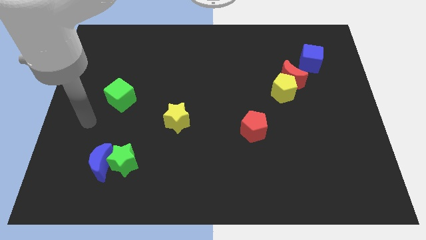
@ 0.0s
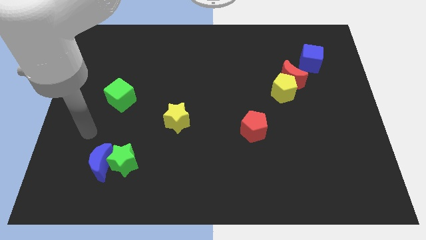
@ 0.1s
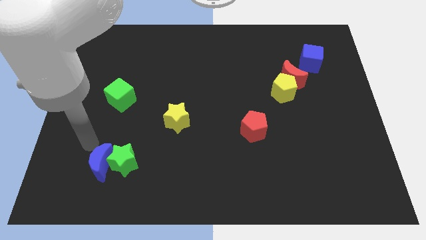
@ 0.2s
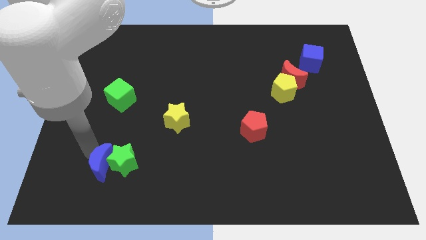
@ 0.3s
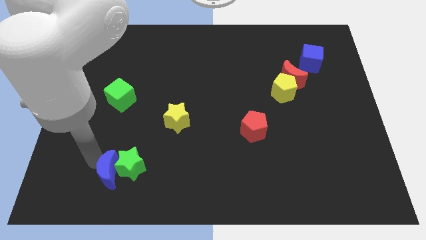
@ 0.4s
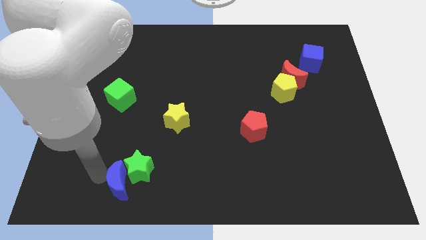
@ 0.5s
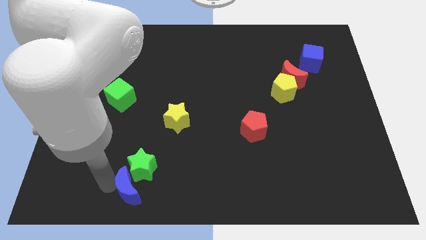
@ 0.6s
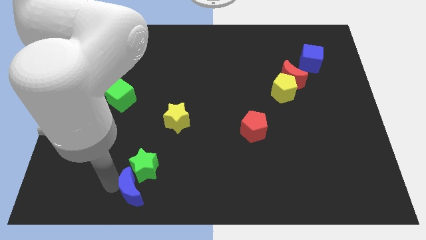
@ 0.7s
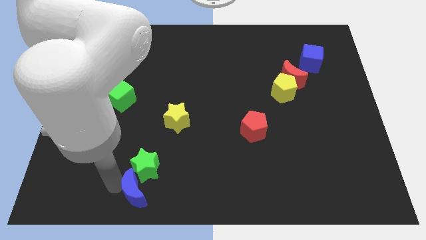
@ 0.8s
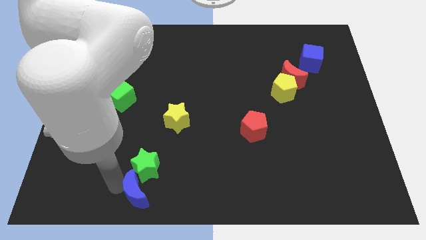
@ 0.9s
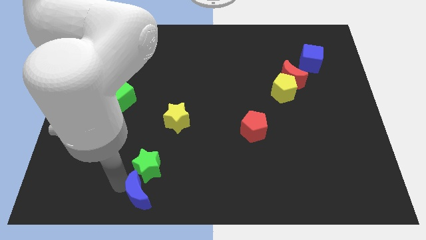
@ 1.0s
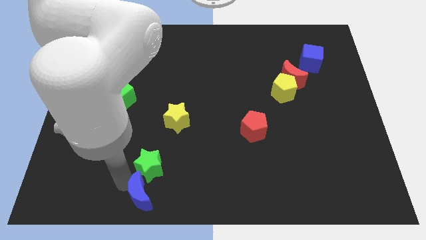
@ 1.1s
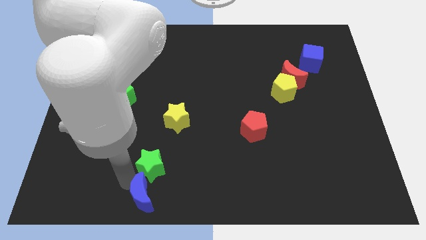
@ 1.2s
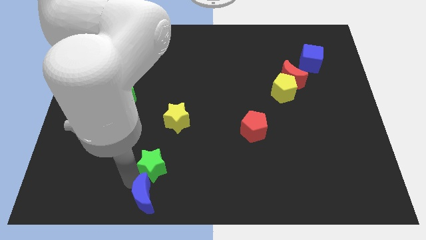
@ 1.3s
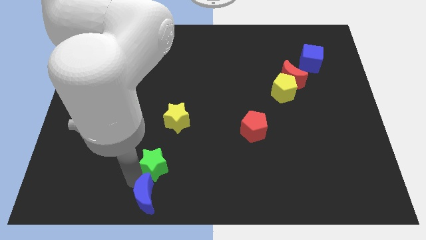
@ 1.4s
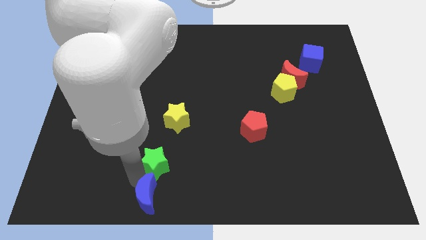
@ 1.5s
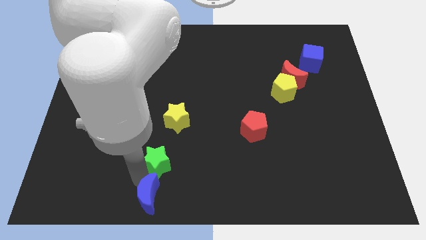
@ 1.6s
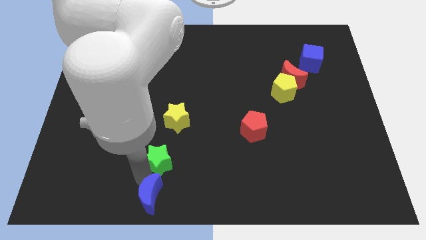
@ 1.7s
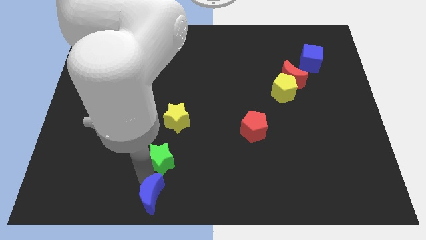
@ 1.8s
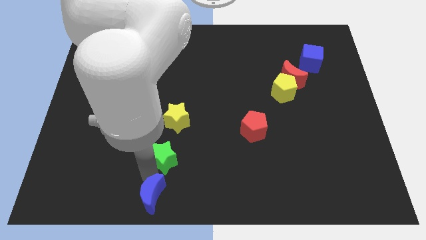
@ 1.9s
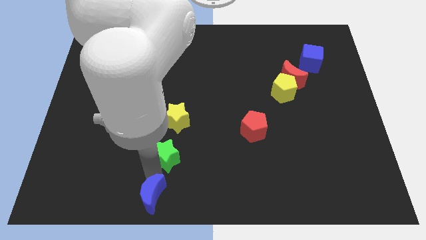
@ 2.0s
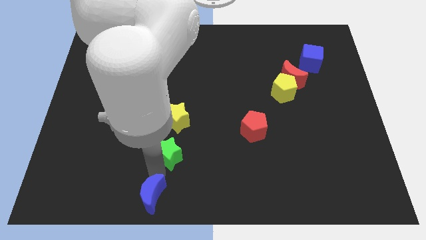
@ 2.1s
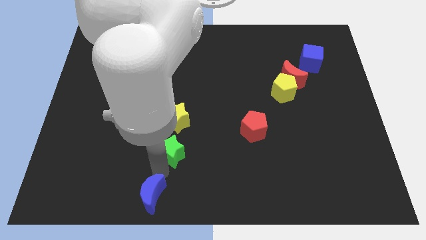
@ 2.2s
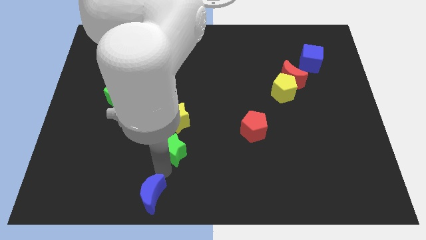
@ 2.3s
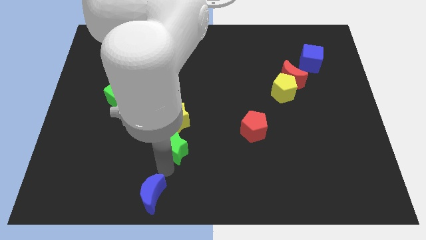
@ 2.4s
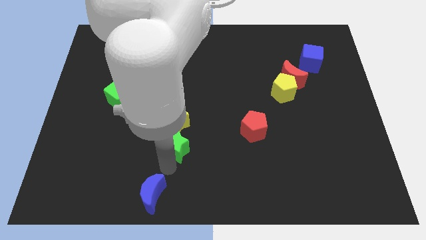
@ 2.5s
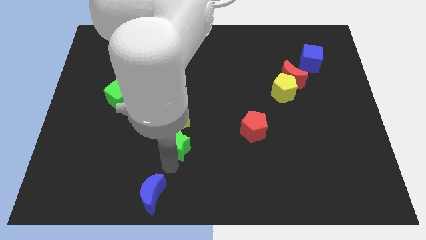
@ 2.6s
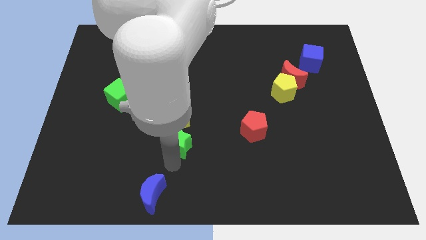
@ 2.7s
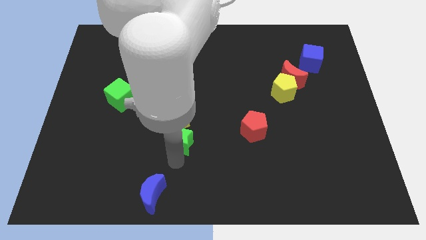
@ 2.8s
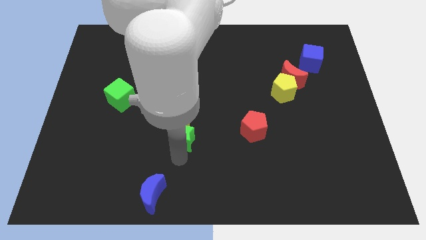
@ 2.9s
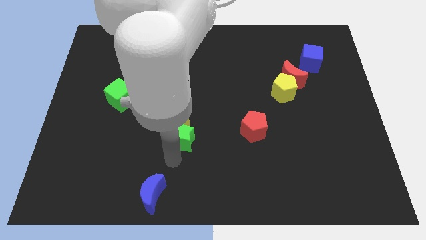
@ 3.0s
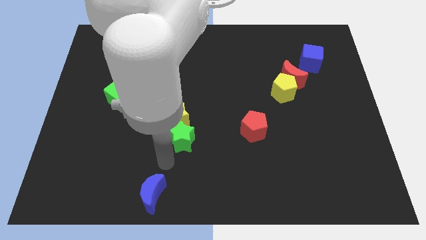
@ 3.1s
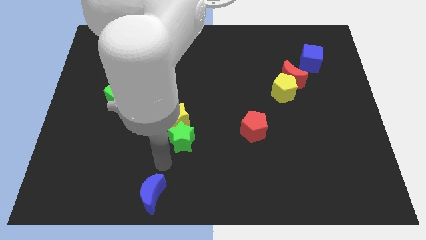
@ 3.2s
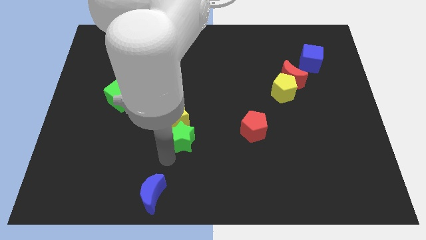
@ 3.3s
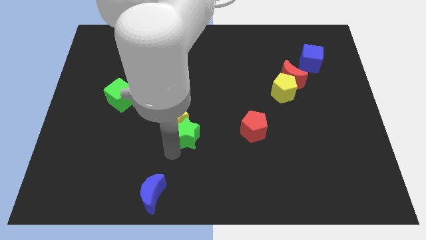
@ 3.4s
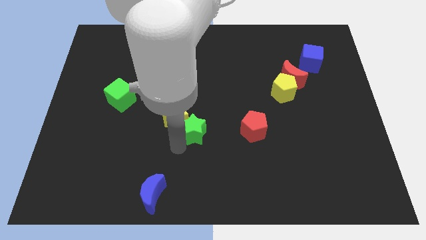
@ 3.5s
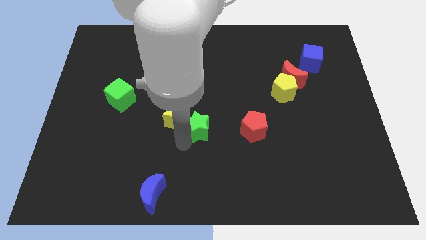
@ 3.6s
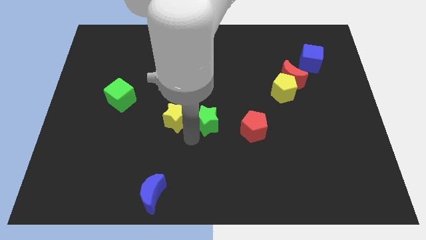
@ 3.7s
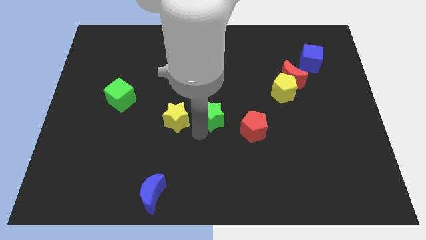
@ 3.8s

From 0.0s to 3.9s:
slide the green star upwards and to the right
